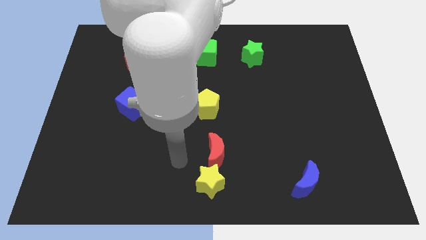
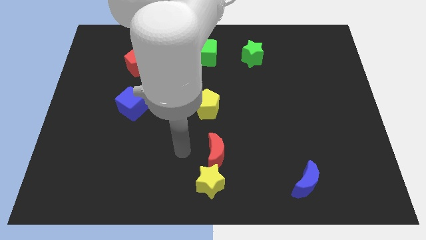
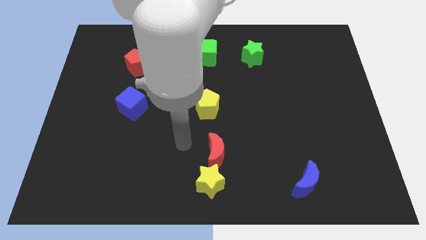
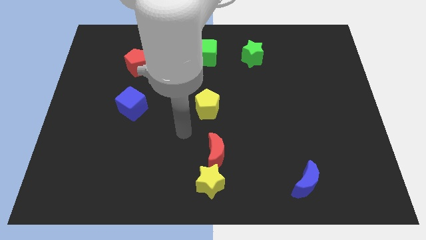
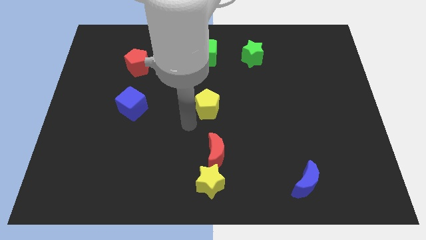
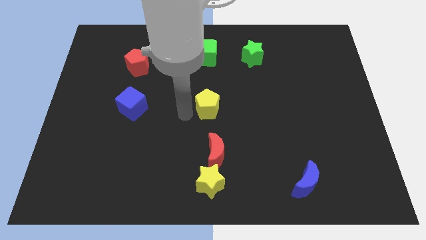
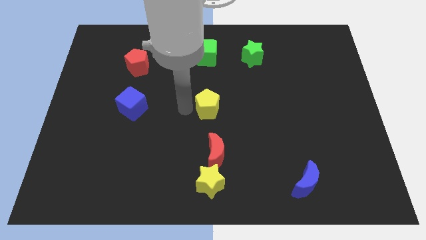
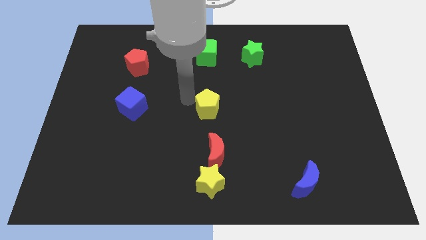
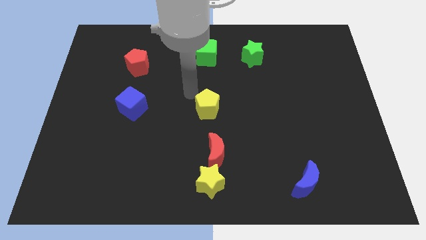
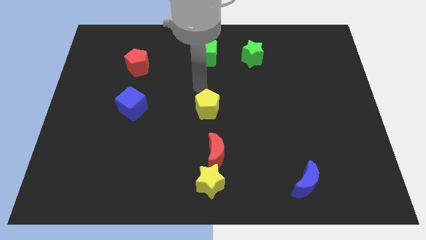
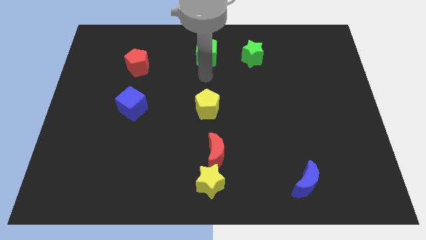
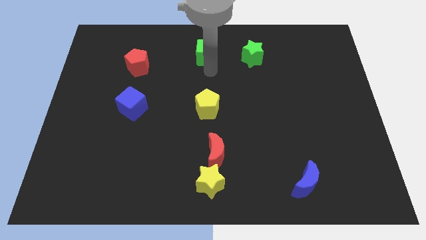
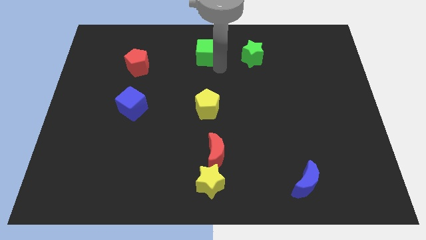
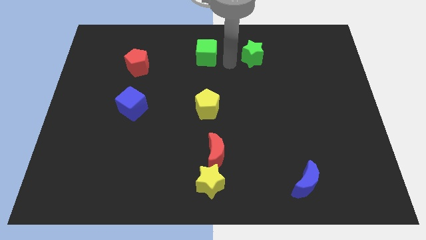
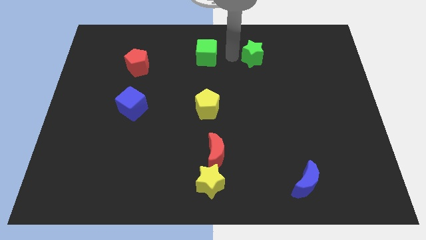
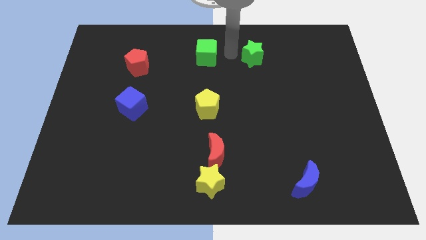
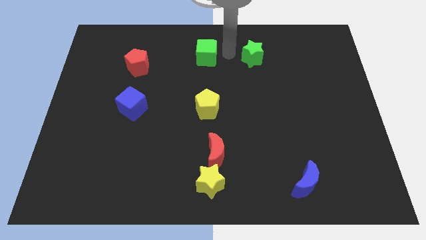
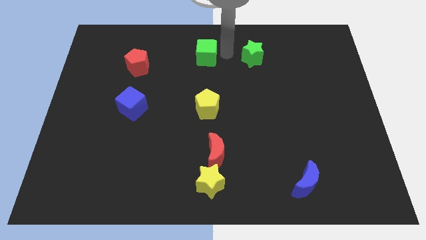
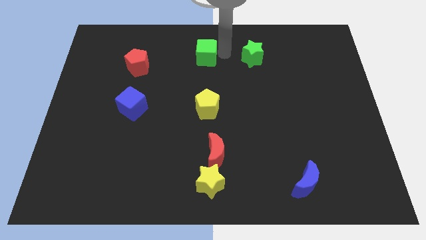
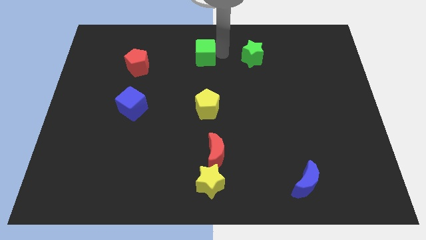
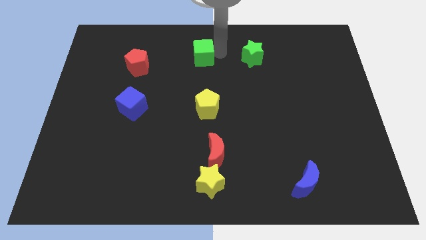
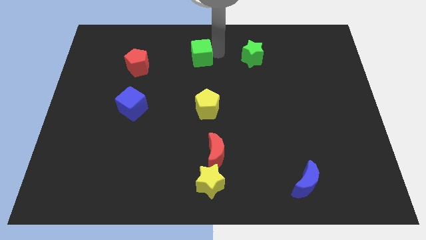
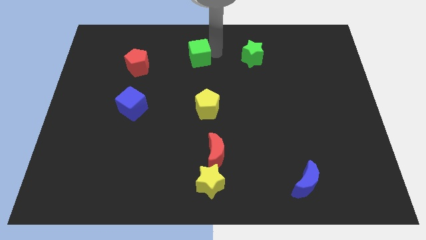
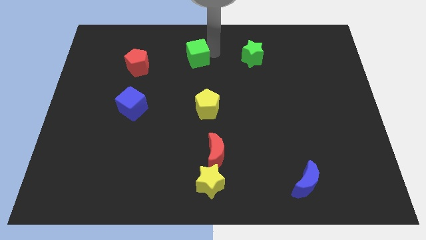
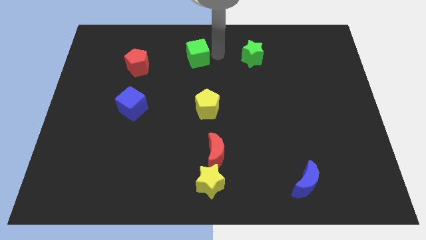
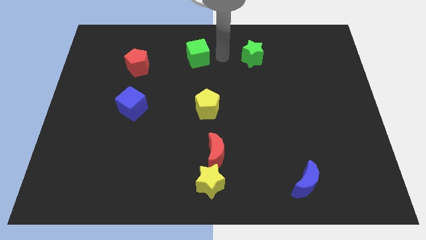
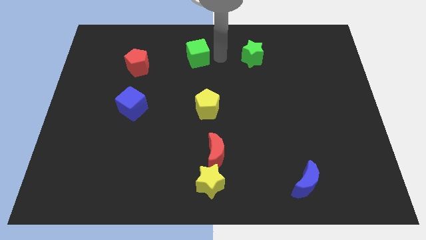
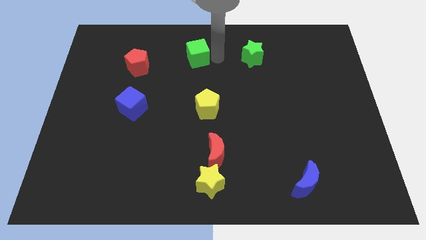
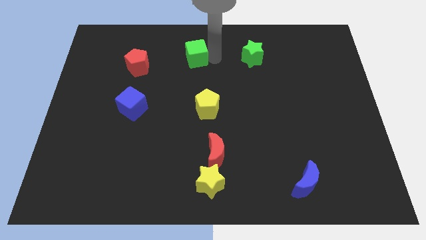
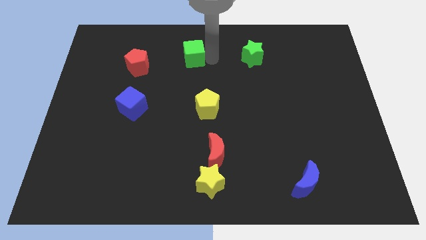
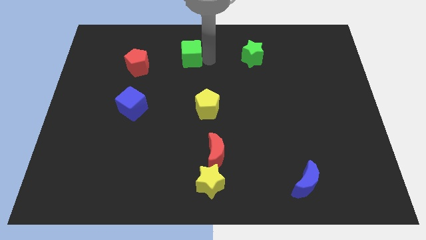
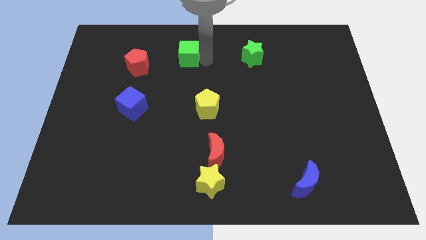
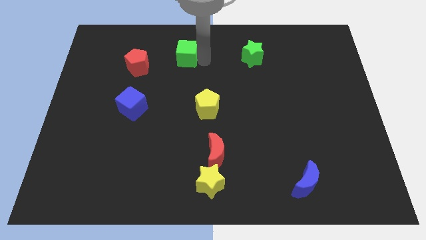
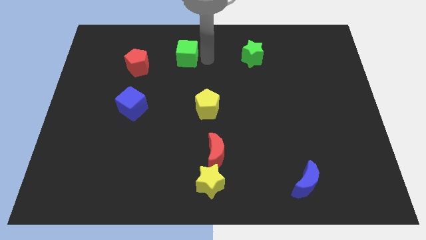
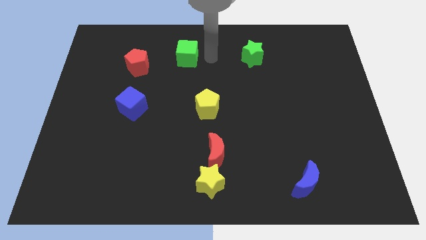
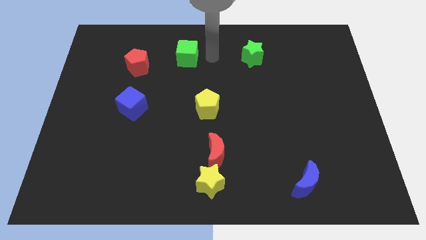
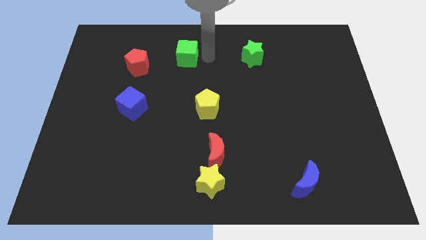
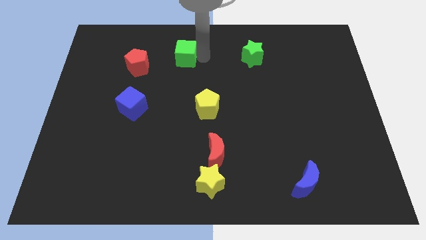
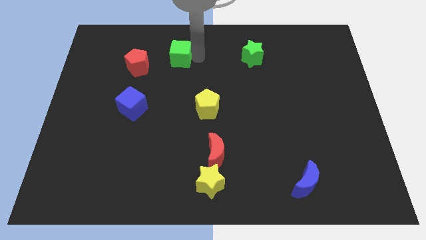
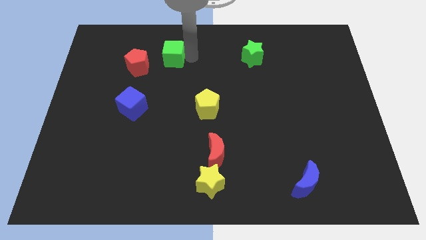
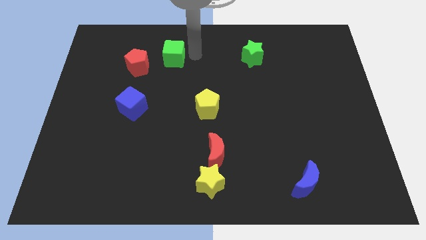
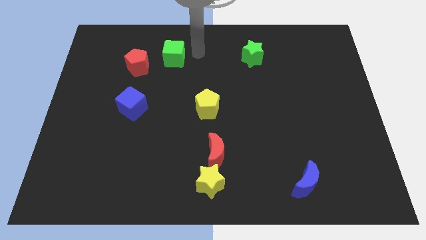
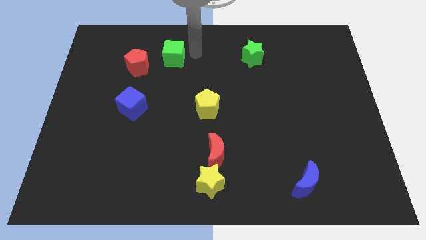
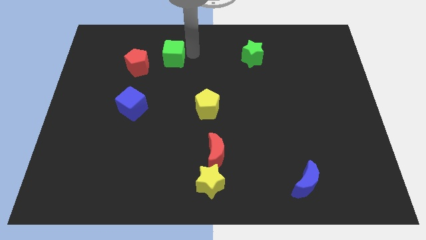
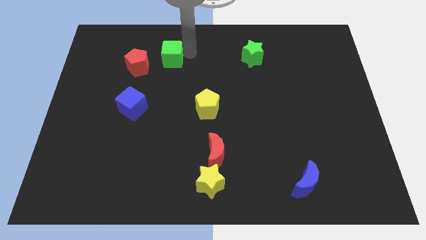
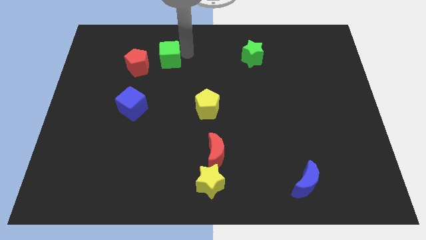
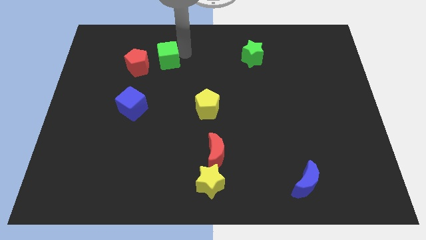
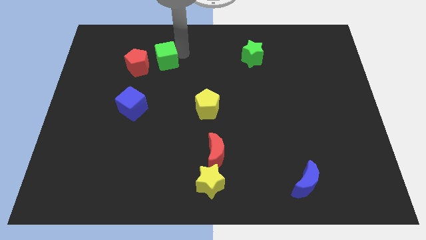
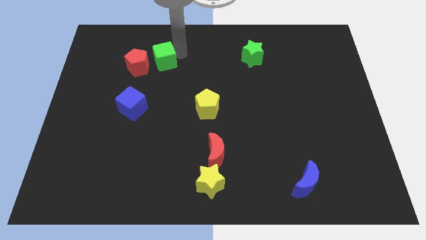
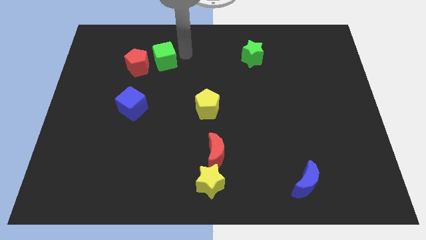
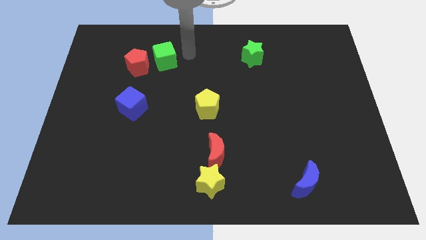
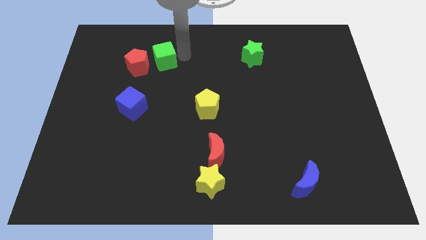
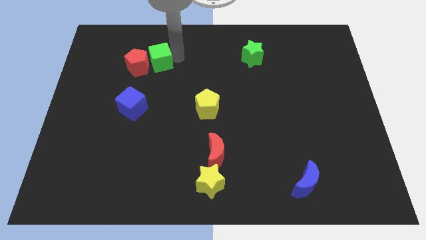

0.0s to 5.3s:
push the green cube close to the red pentagon

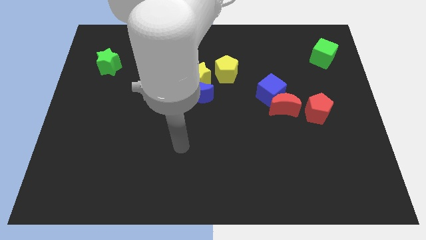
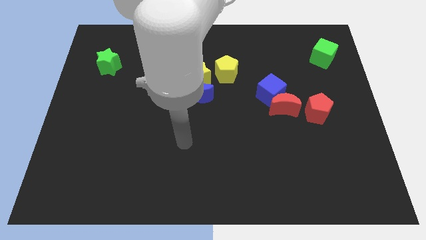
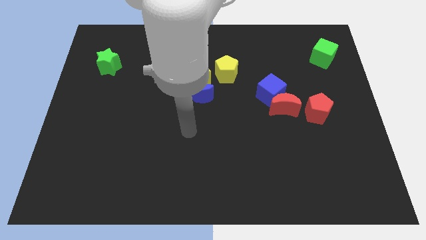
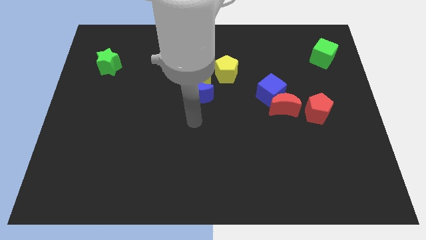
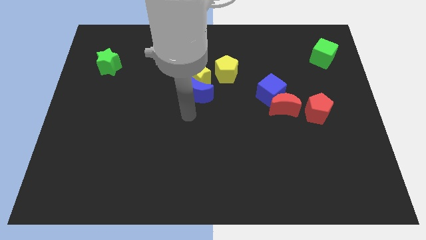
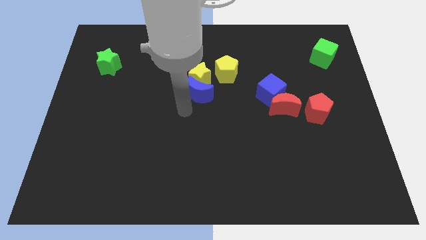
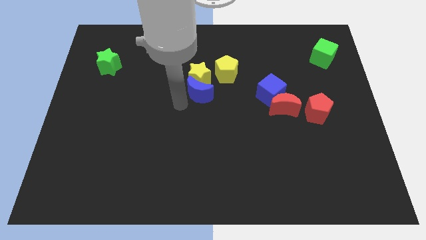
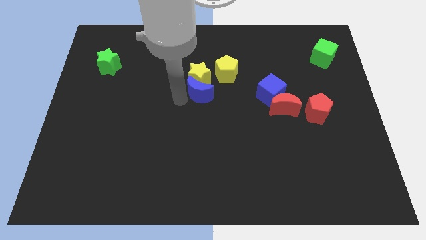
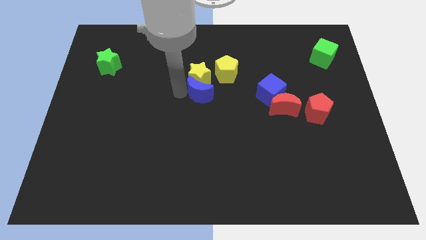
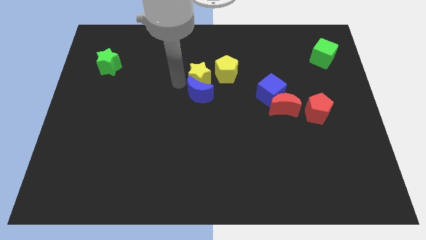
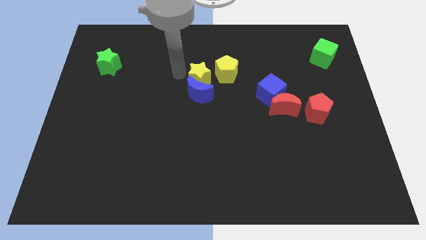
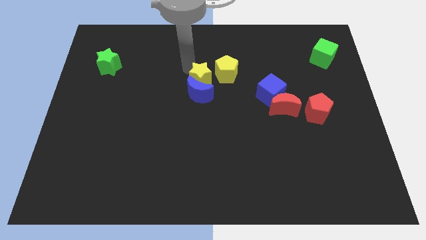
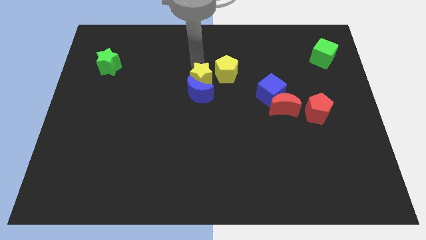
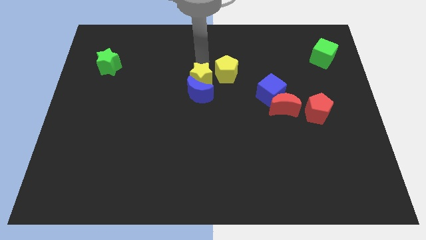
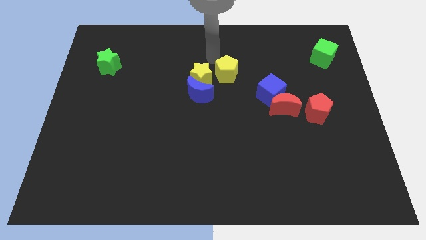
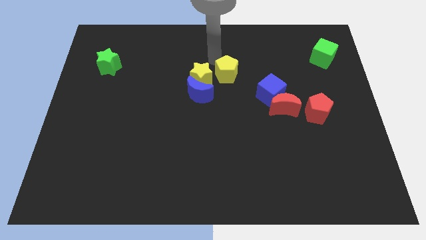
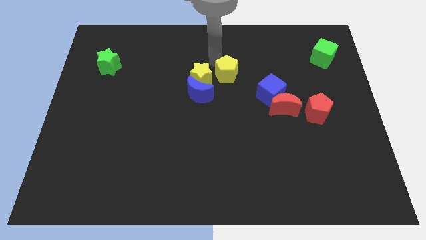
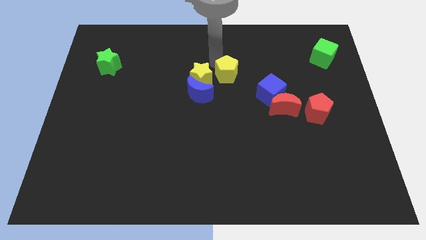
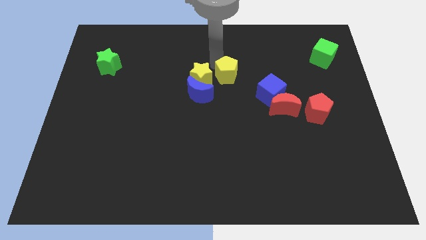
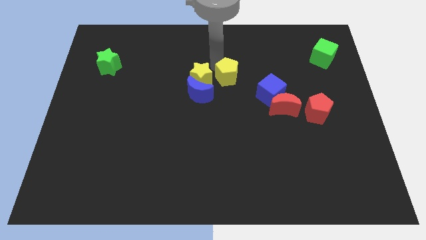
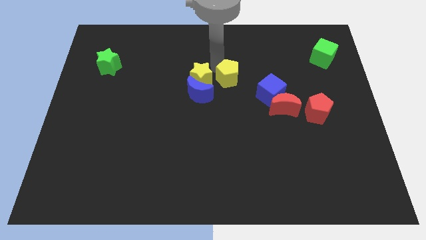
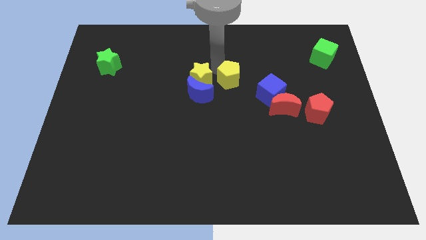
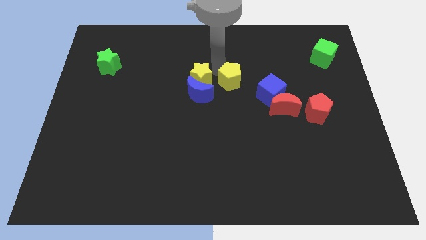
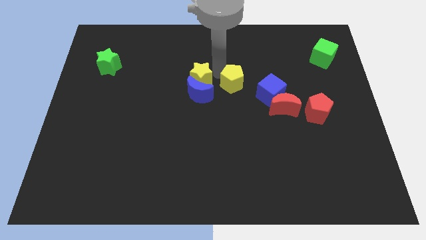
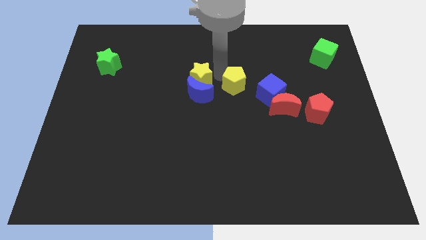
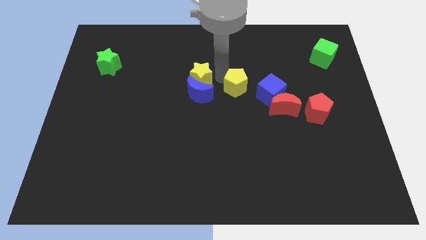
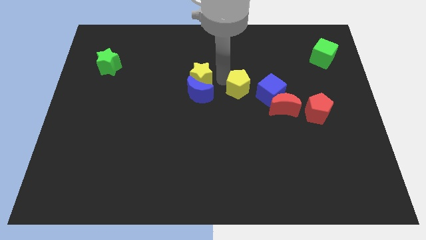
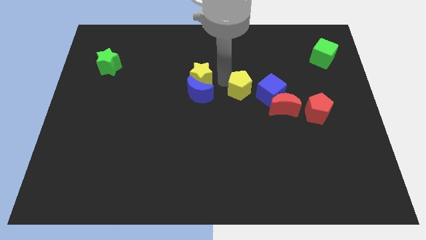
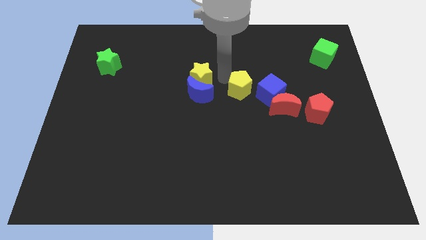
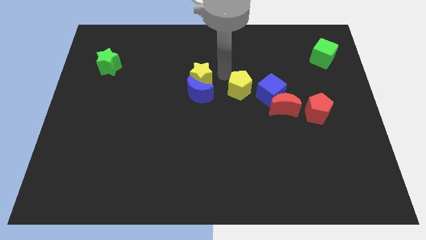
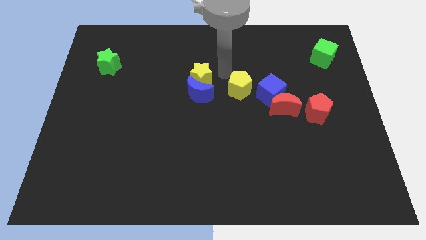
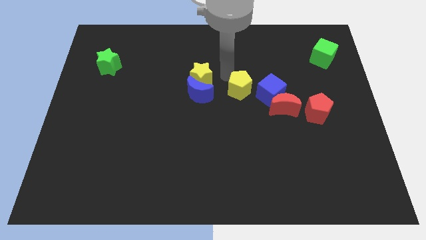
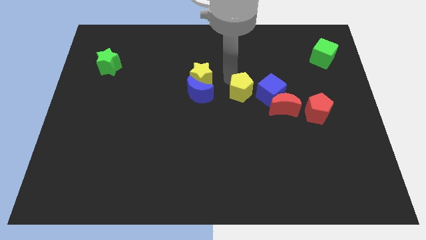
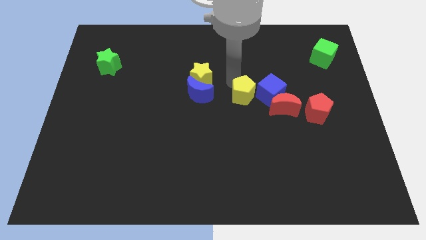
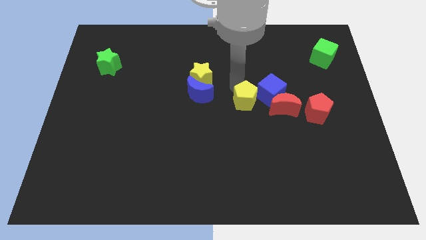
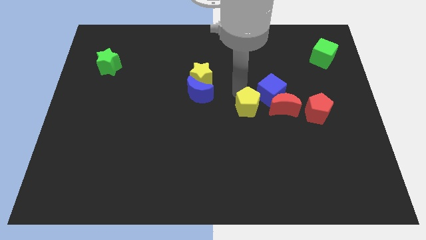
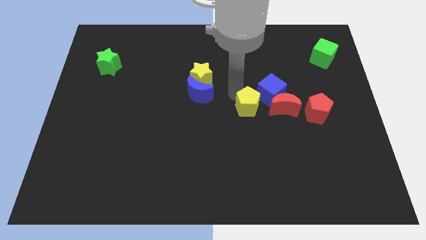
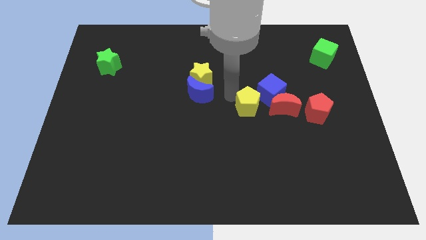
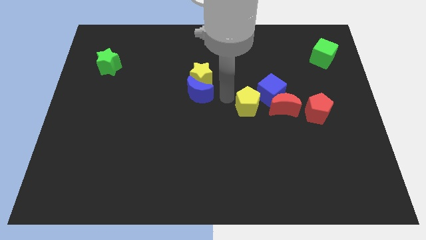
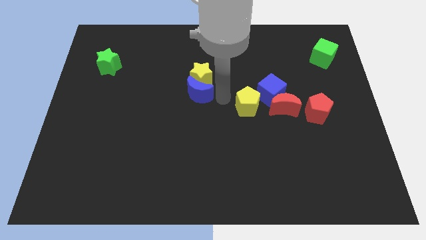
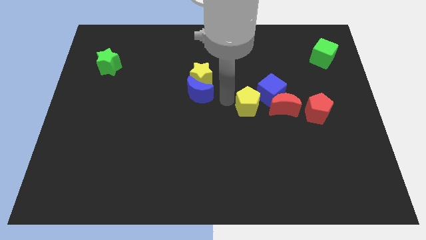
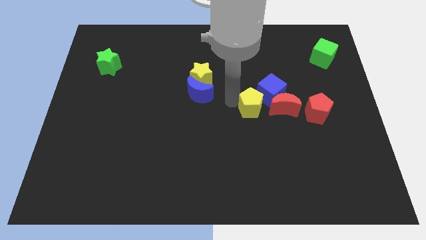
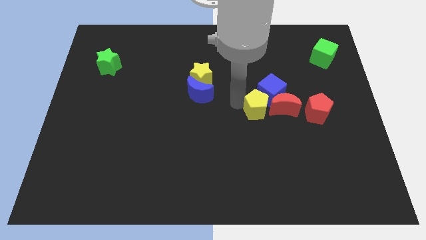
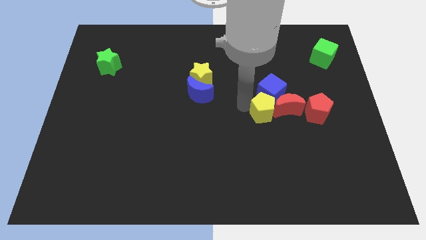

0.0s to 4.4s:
slide the yellow pentagon close to the red moon
